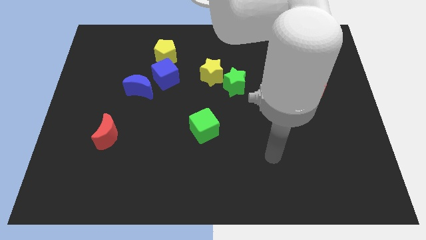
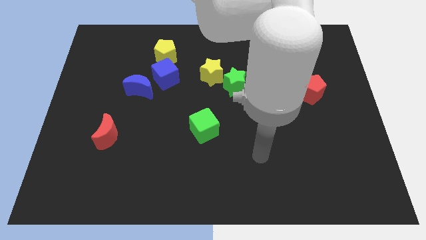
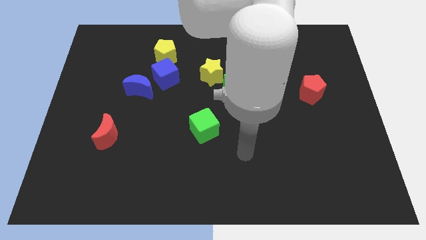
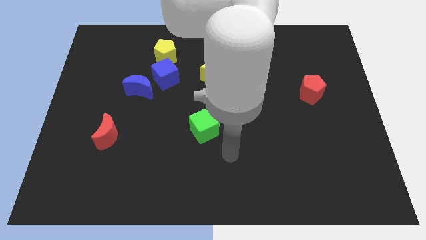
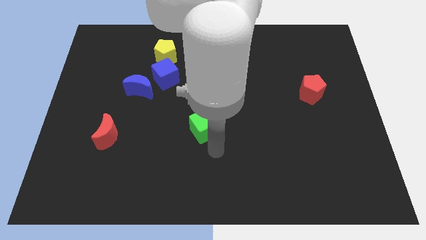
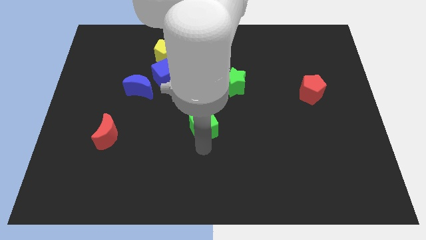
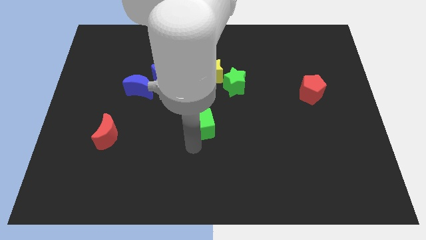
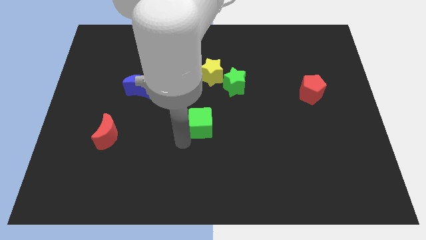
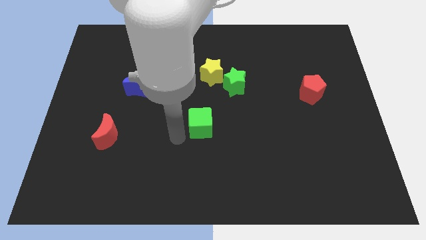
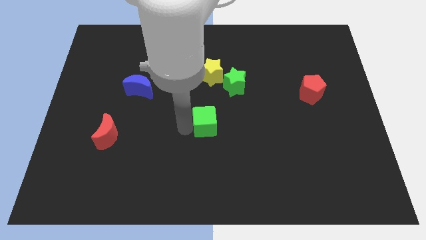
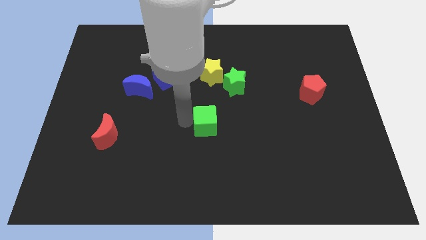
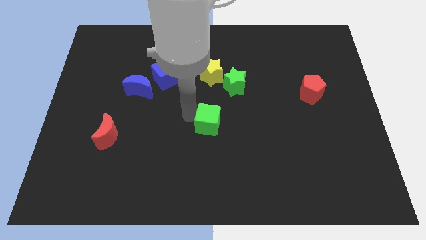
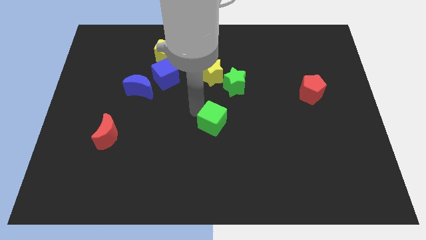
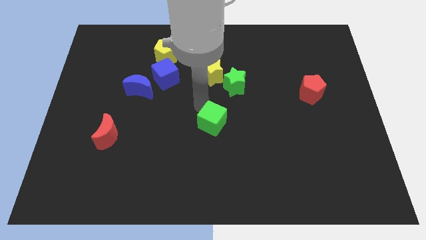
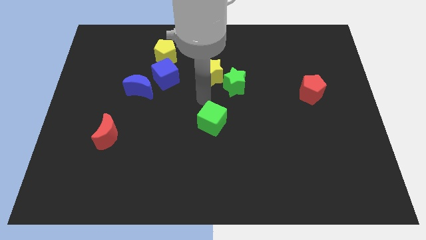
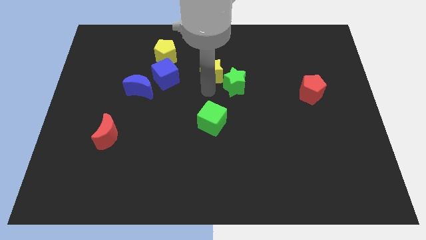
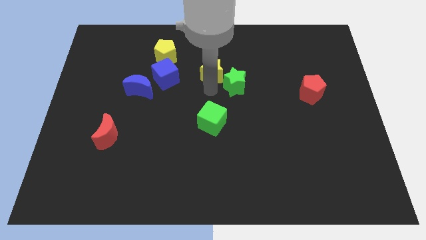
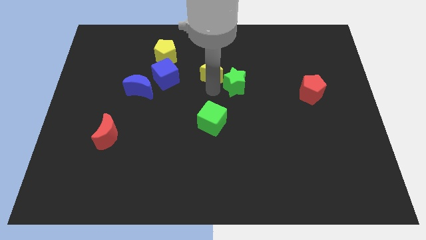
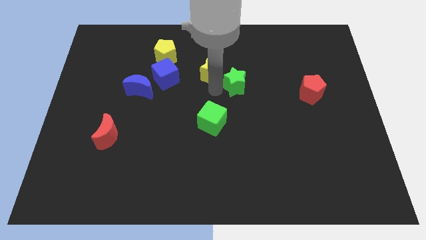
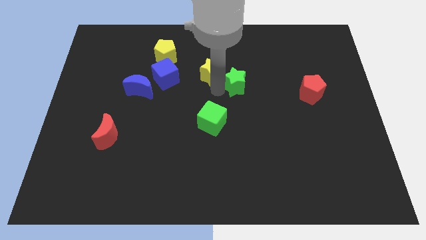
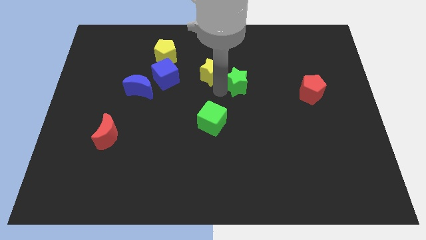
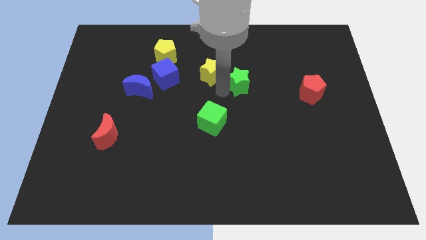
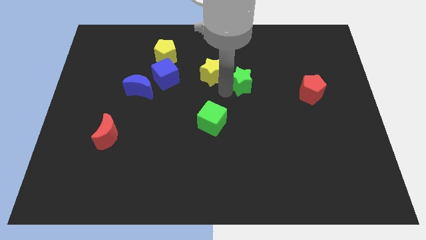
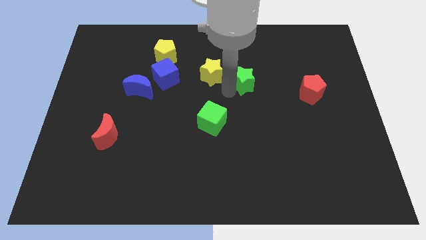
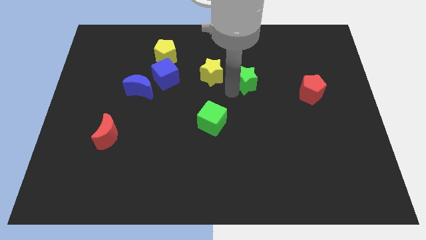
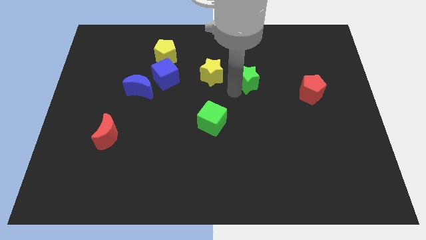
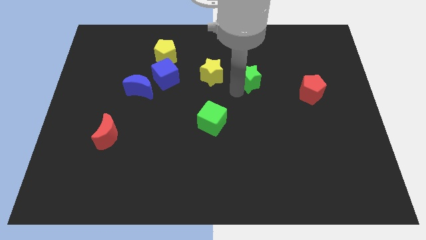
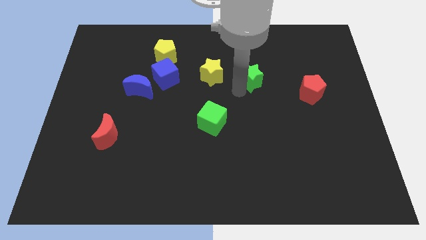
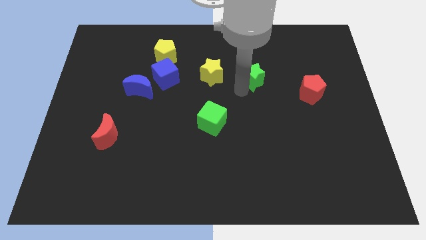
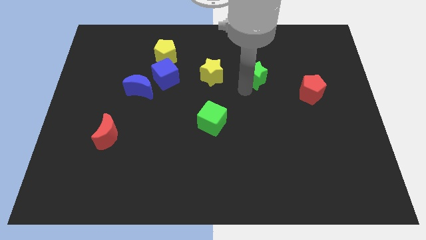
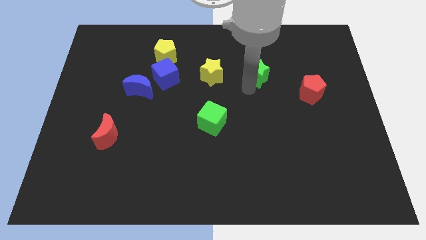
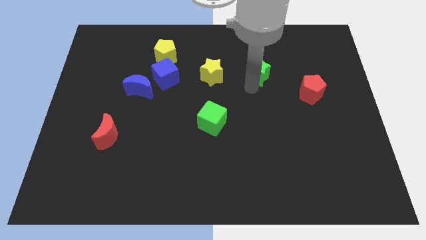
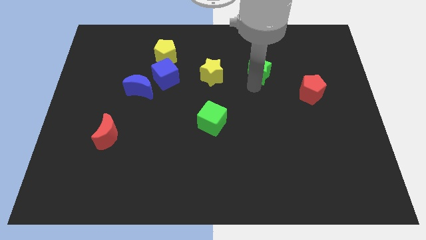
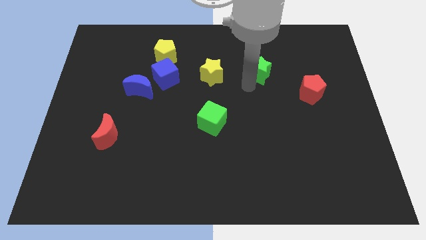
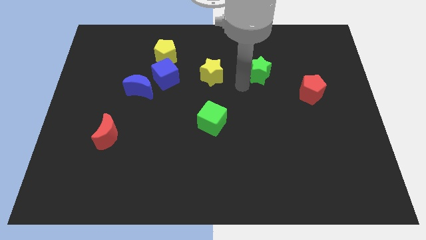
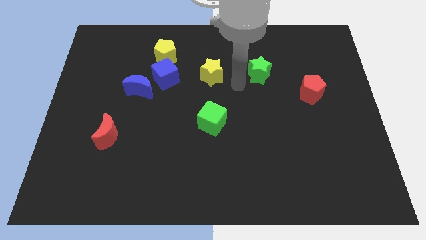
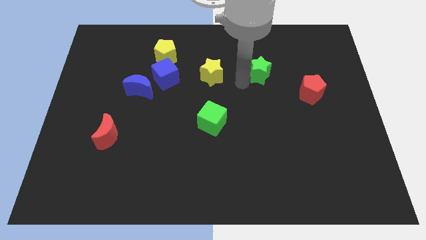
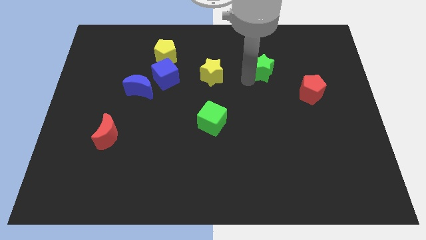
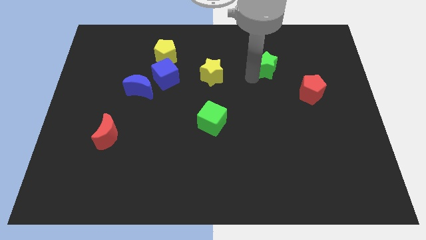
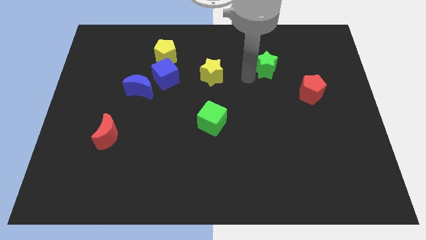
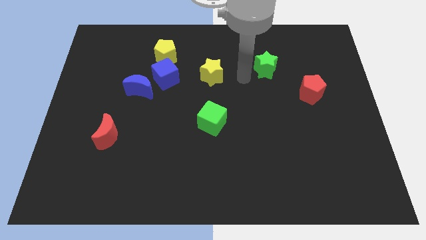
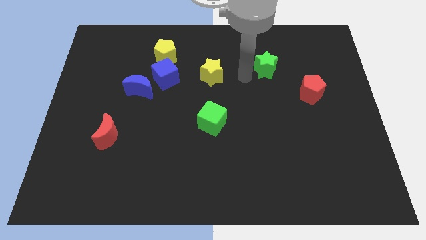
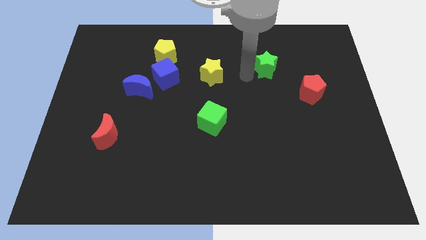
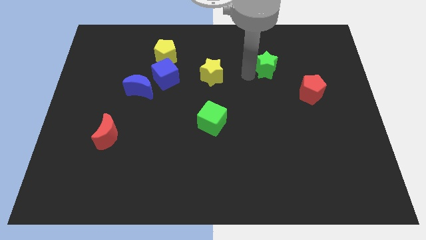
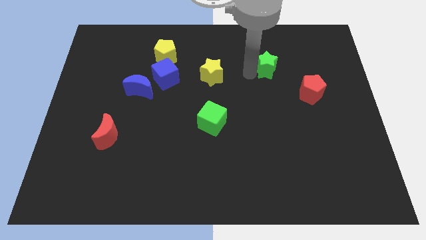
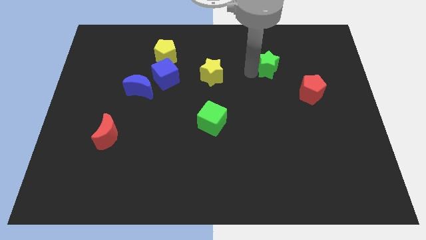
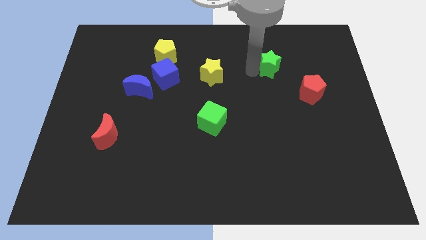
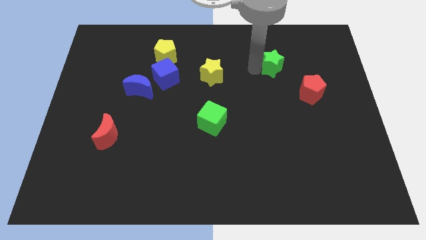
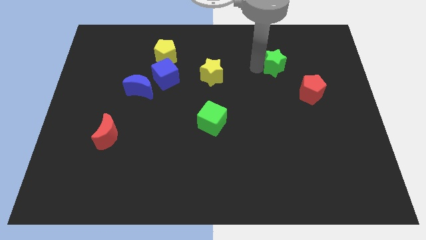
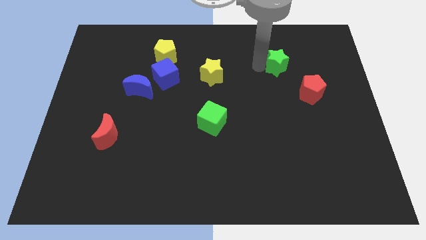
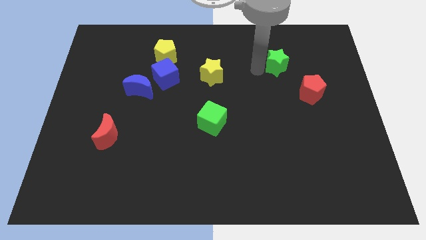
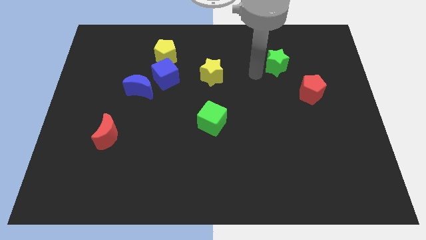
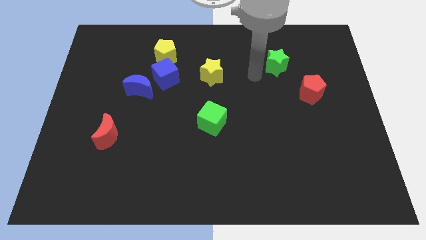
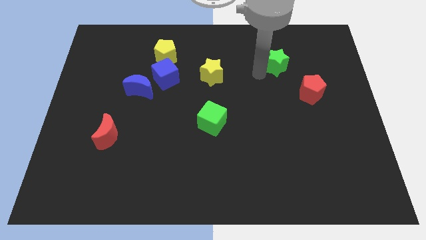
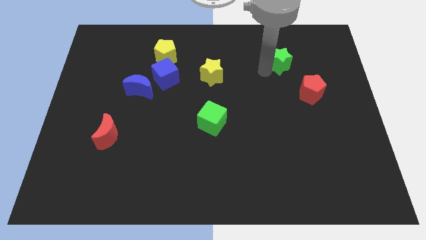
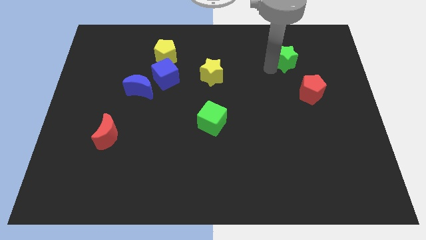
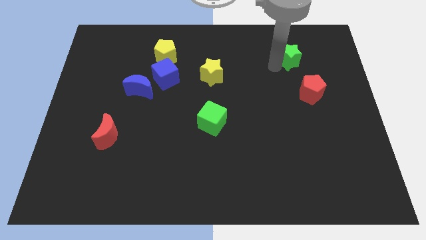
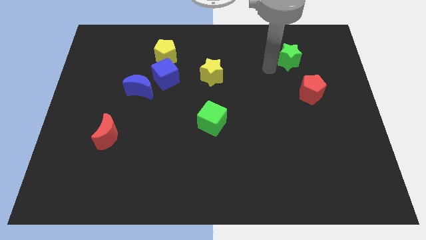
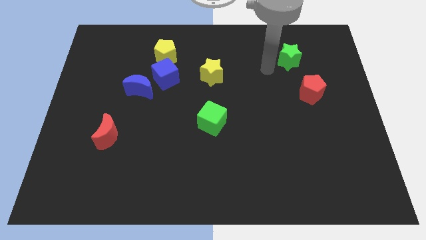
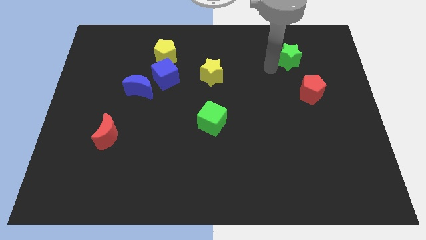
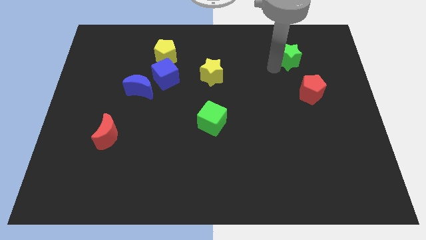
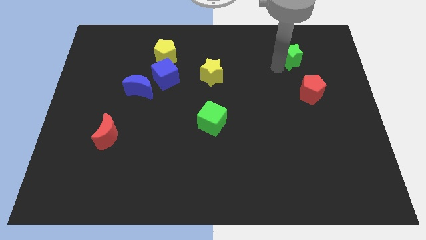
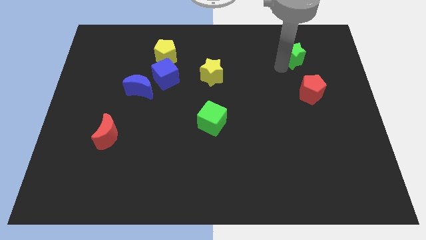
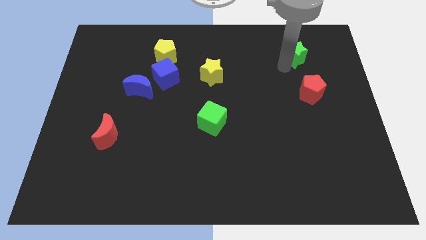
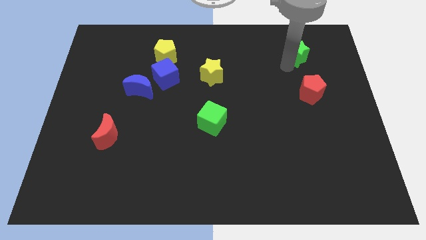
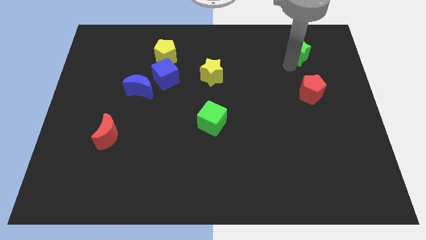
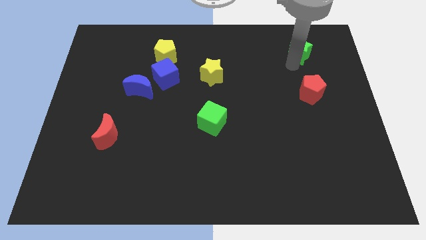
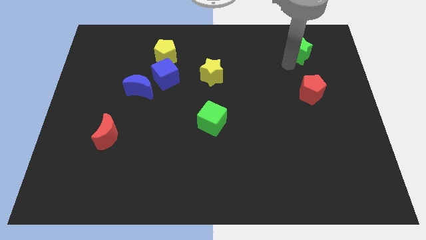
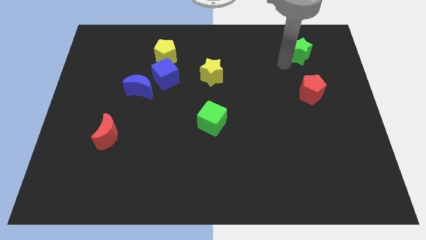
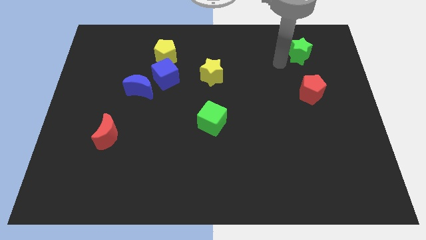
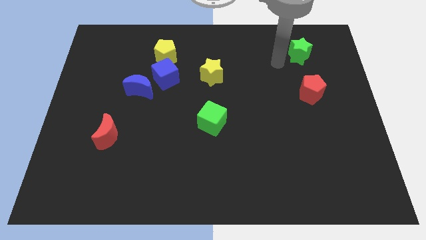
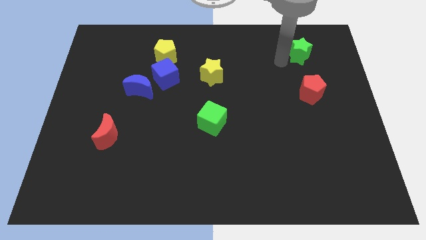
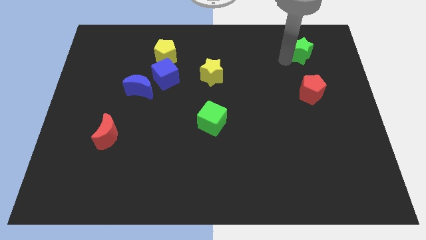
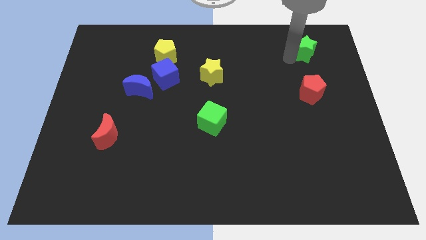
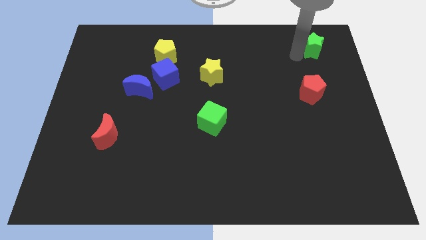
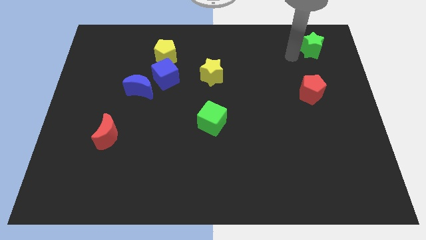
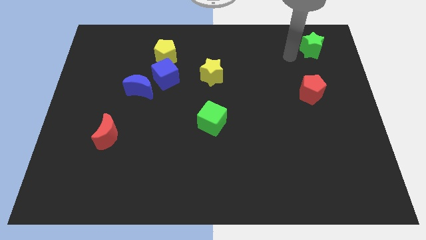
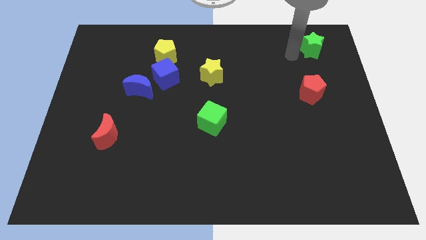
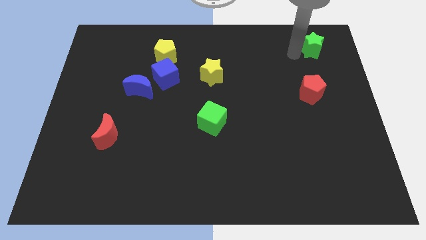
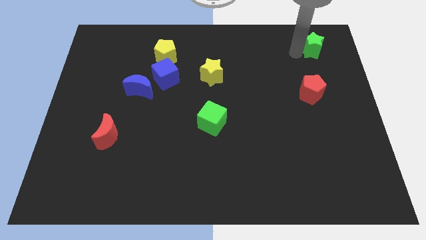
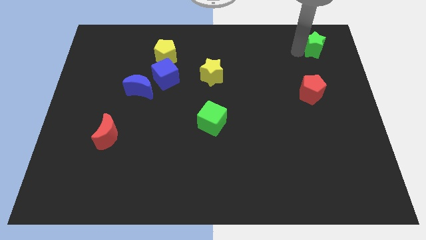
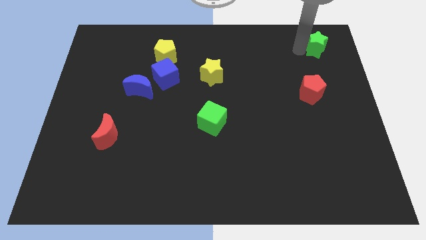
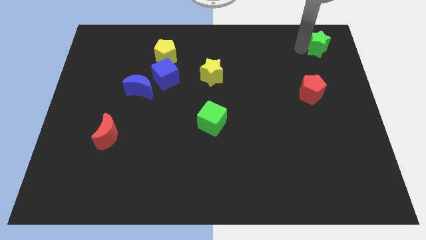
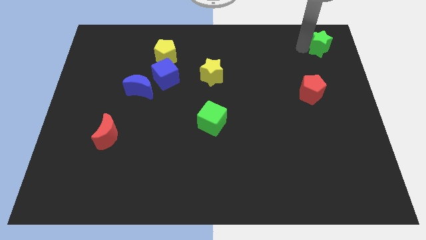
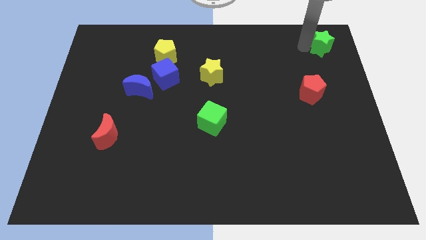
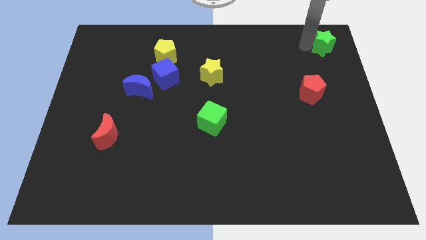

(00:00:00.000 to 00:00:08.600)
move the green star to the top right of the board
